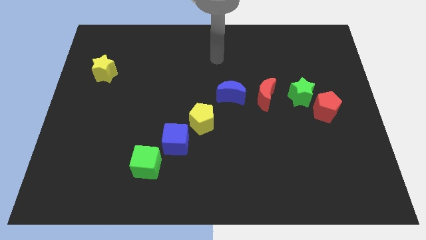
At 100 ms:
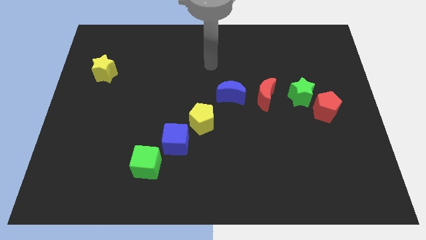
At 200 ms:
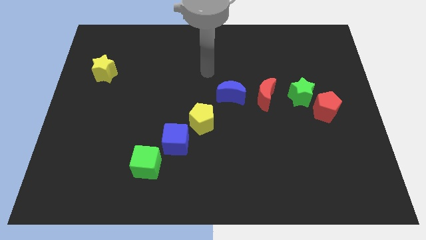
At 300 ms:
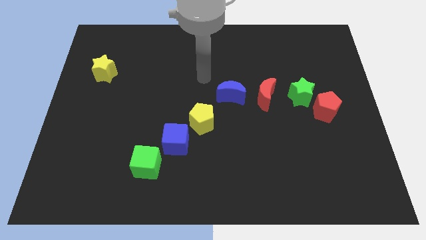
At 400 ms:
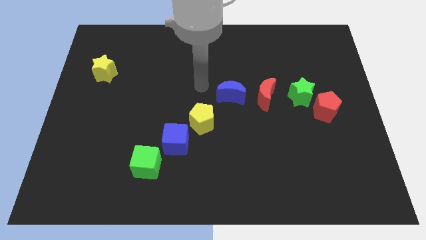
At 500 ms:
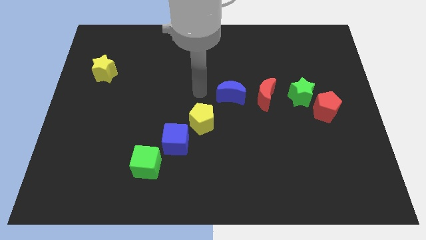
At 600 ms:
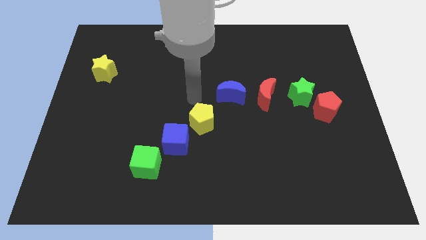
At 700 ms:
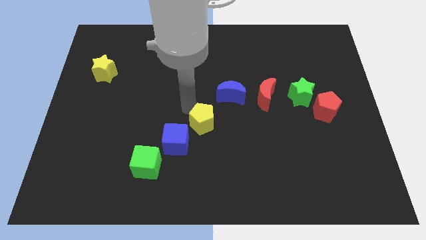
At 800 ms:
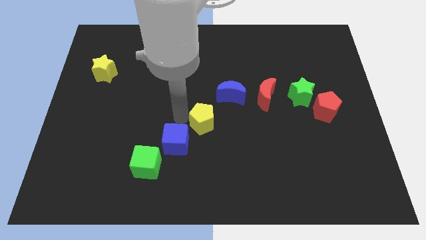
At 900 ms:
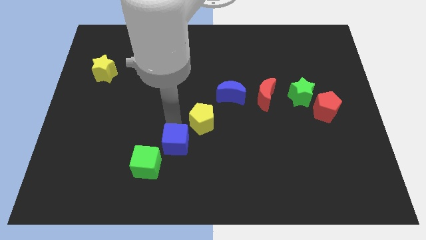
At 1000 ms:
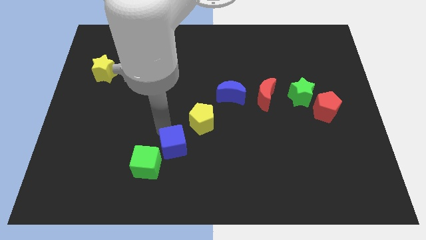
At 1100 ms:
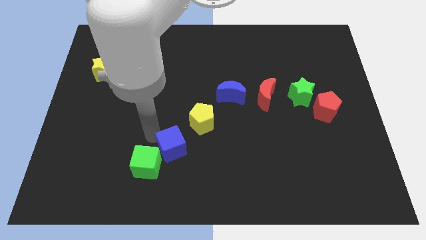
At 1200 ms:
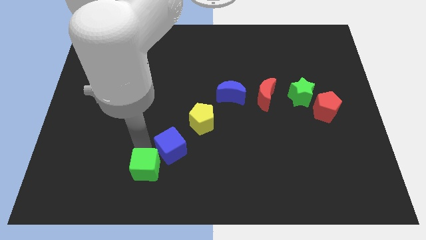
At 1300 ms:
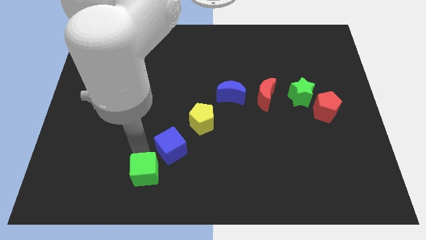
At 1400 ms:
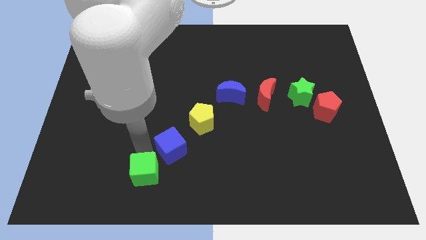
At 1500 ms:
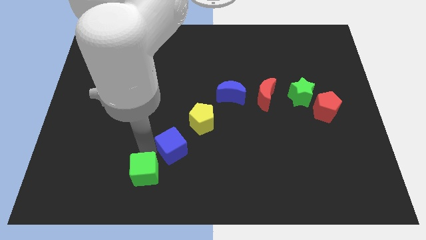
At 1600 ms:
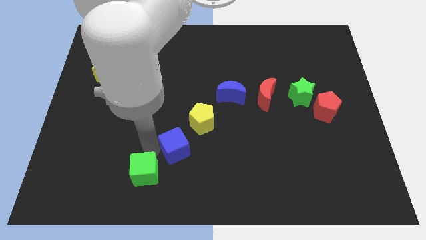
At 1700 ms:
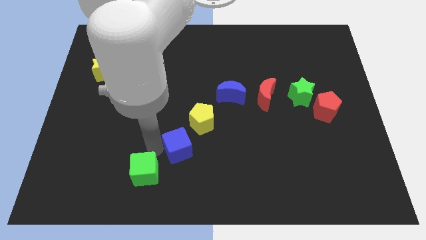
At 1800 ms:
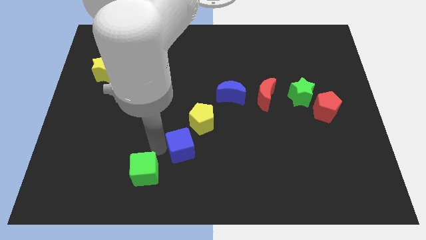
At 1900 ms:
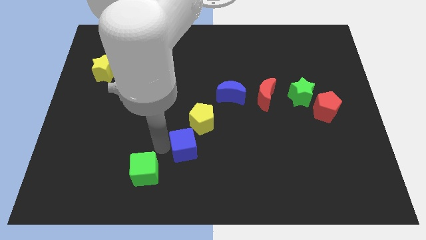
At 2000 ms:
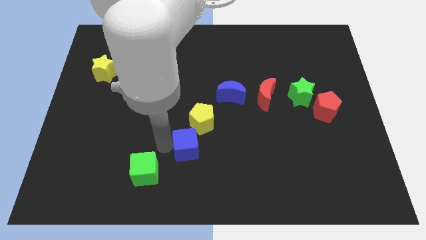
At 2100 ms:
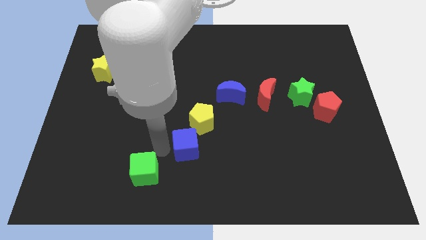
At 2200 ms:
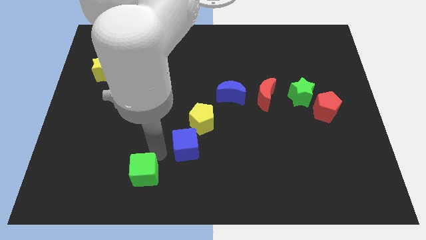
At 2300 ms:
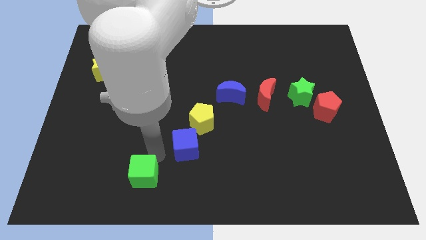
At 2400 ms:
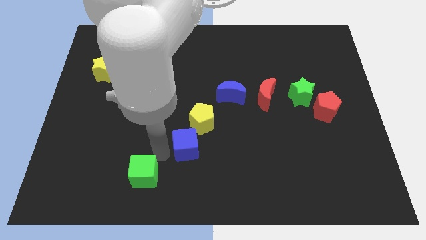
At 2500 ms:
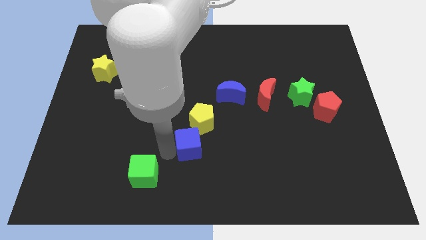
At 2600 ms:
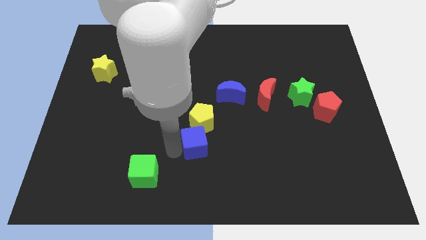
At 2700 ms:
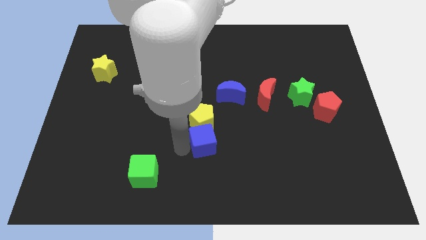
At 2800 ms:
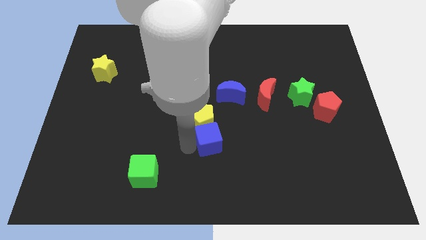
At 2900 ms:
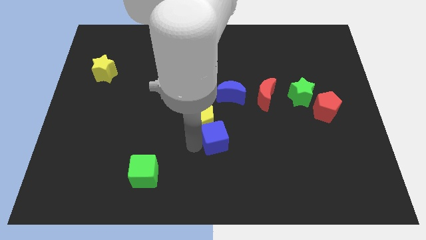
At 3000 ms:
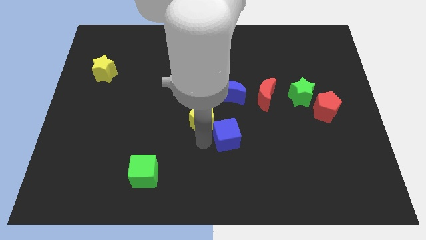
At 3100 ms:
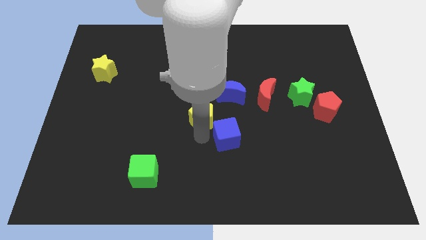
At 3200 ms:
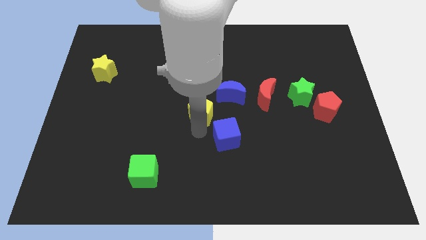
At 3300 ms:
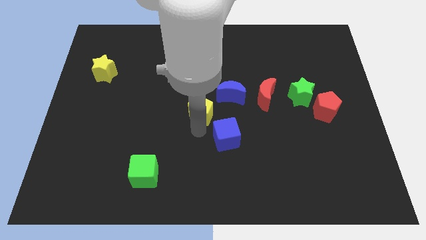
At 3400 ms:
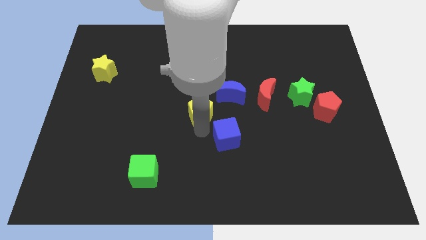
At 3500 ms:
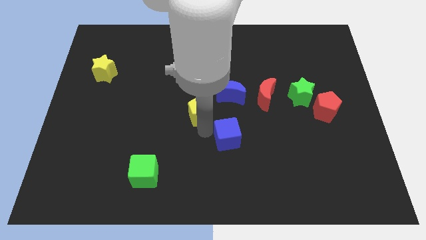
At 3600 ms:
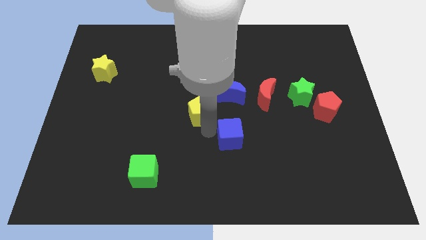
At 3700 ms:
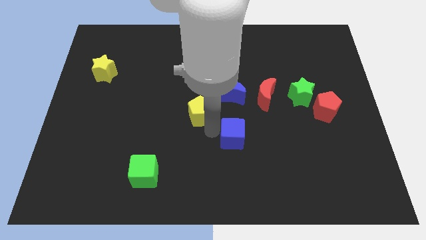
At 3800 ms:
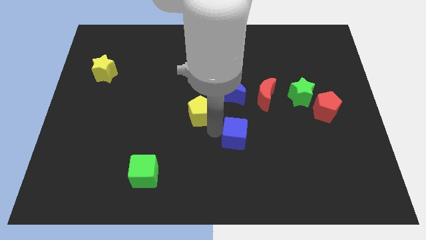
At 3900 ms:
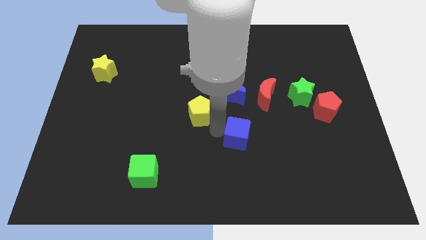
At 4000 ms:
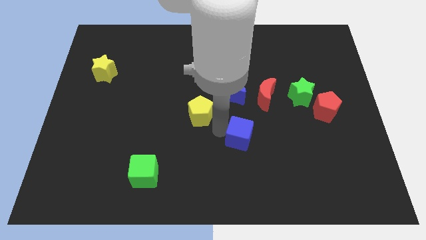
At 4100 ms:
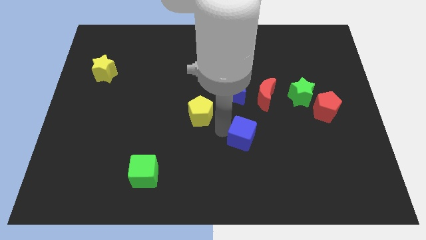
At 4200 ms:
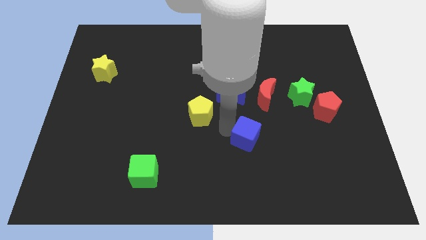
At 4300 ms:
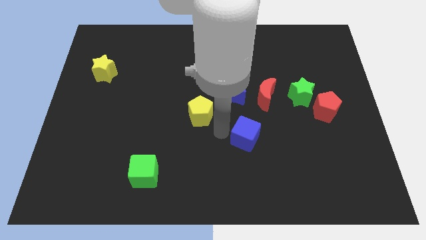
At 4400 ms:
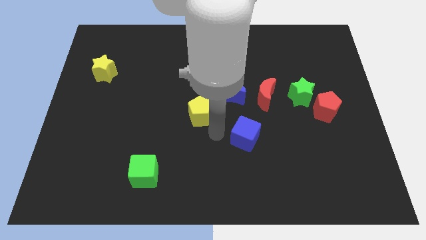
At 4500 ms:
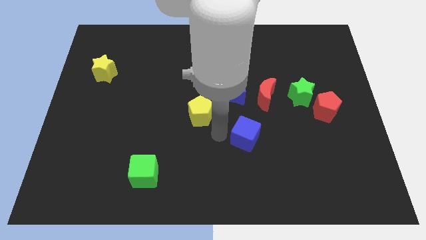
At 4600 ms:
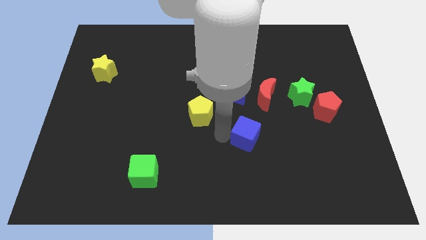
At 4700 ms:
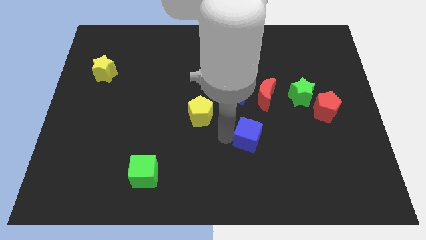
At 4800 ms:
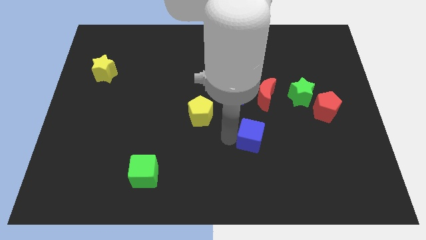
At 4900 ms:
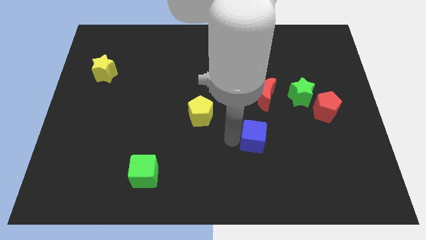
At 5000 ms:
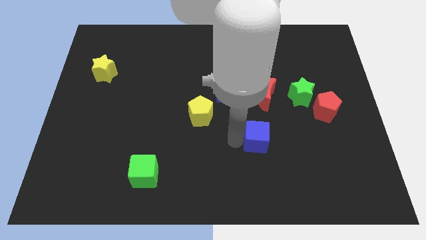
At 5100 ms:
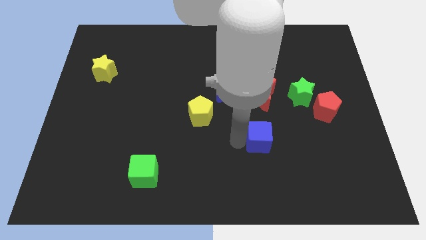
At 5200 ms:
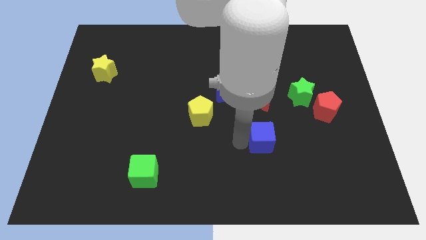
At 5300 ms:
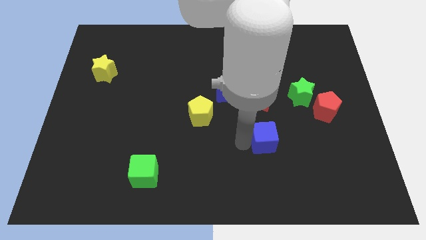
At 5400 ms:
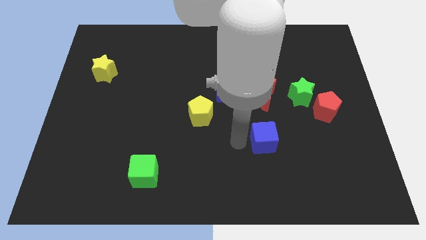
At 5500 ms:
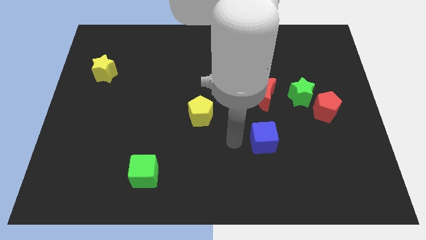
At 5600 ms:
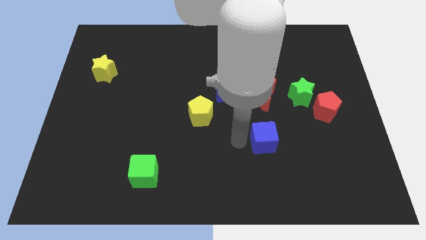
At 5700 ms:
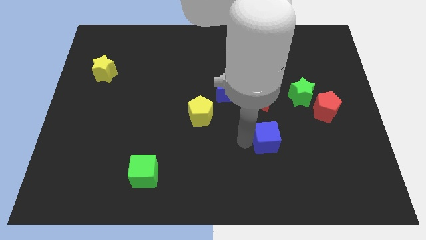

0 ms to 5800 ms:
move the blue cube to the right

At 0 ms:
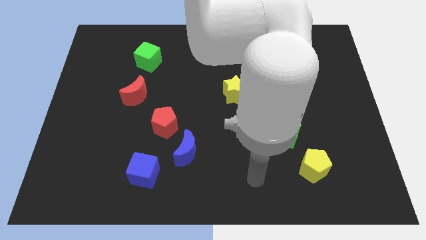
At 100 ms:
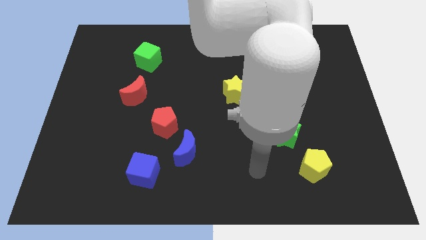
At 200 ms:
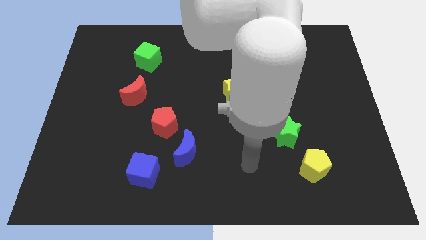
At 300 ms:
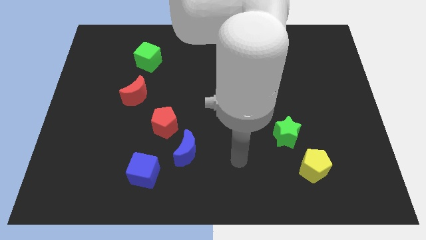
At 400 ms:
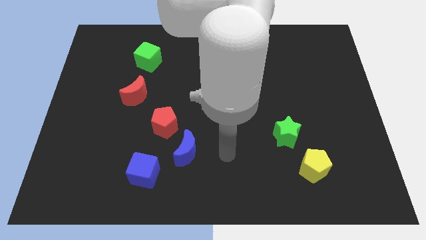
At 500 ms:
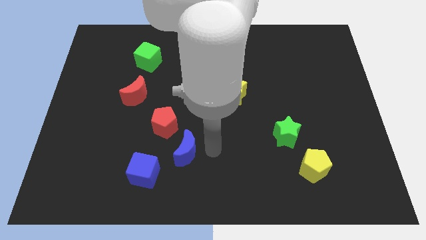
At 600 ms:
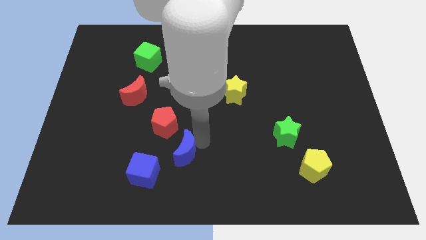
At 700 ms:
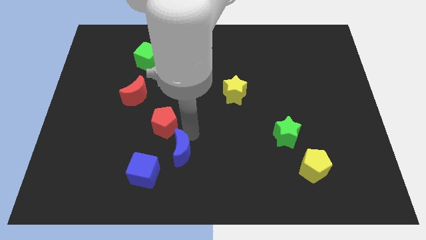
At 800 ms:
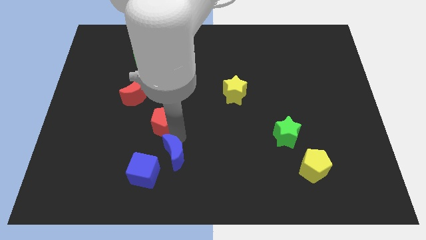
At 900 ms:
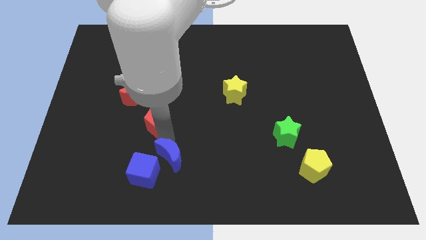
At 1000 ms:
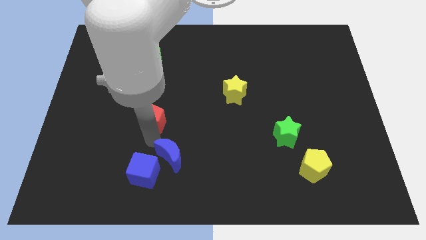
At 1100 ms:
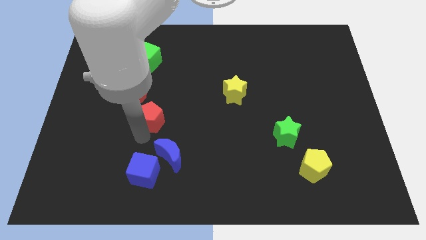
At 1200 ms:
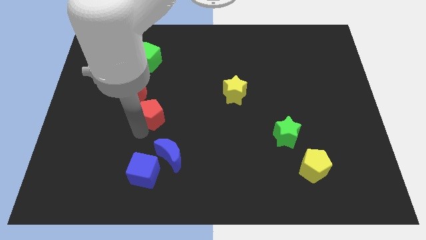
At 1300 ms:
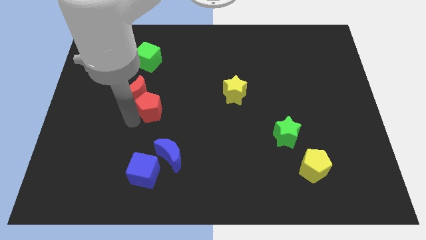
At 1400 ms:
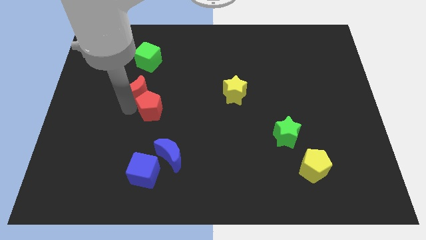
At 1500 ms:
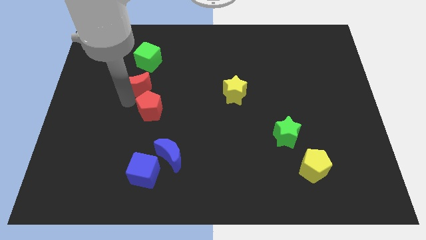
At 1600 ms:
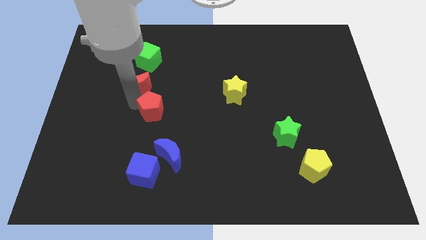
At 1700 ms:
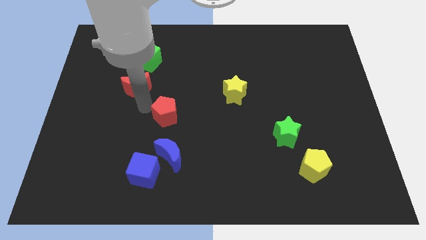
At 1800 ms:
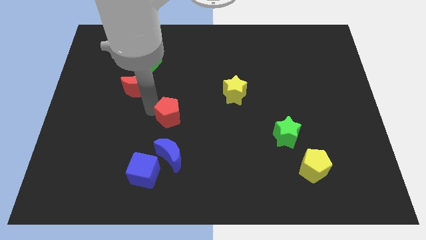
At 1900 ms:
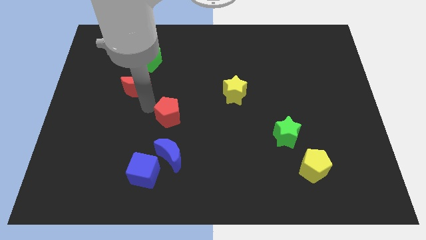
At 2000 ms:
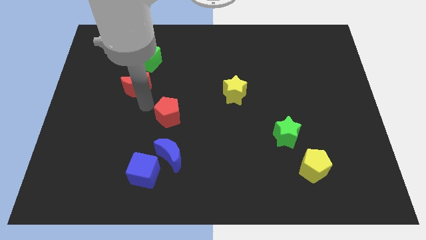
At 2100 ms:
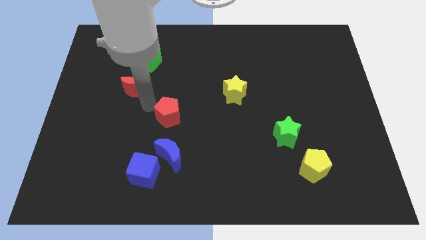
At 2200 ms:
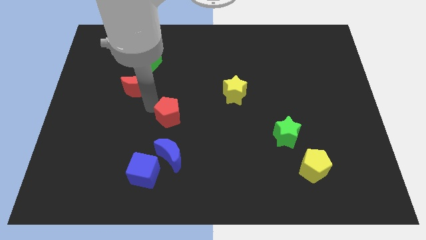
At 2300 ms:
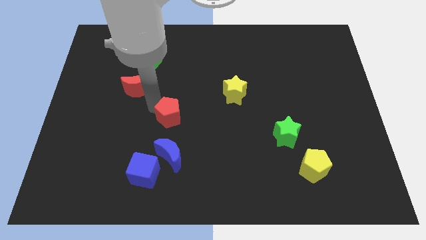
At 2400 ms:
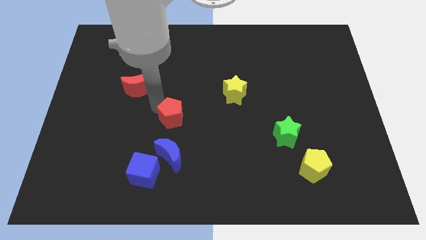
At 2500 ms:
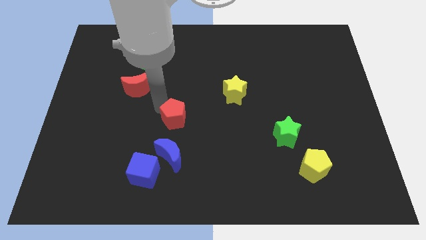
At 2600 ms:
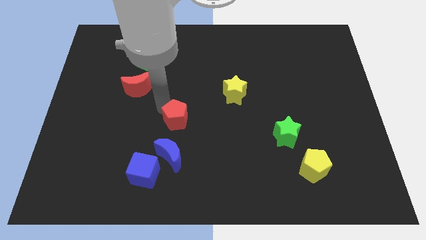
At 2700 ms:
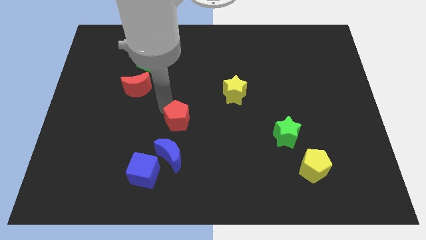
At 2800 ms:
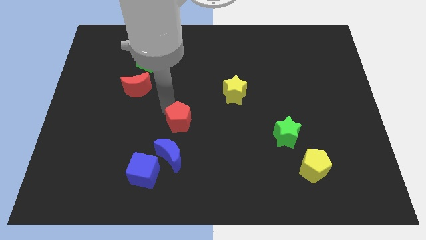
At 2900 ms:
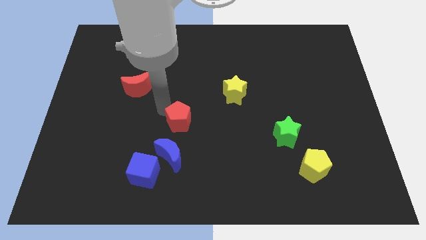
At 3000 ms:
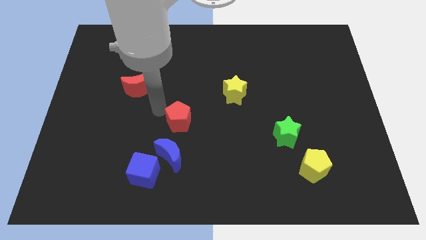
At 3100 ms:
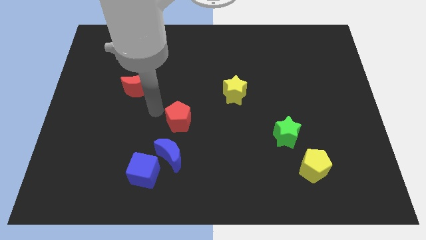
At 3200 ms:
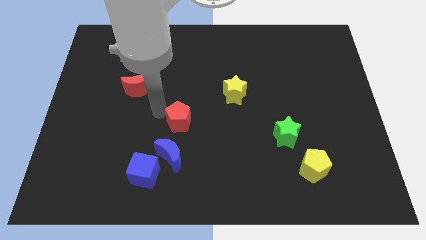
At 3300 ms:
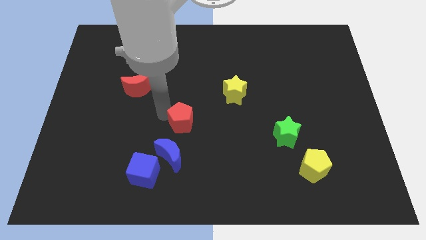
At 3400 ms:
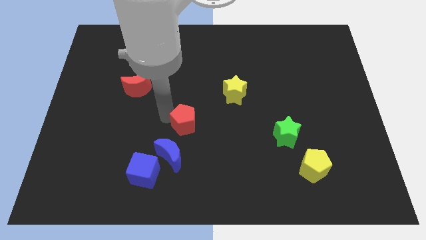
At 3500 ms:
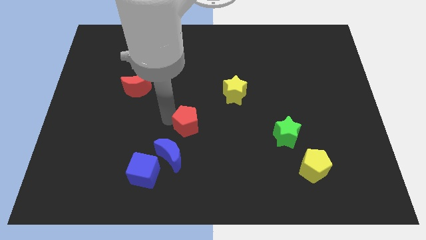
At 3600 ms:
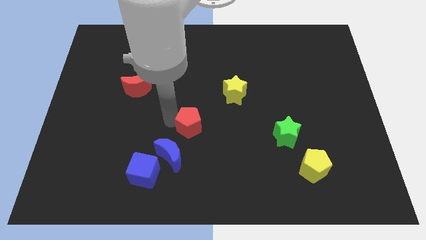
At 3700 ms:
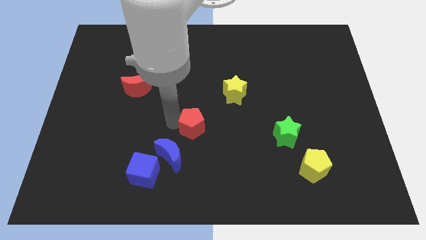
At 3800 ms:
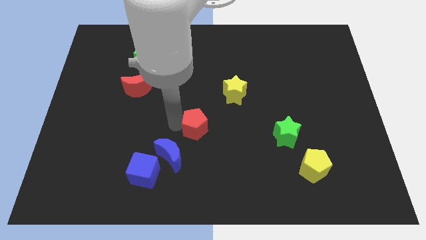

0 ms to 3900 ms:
push the red pentagon right somewhat
